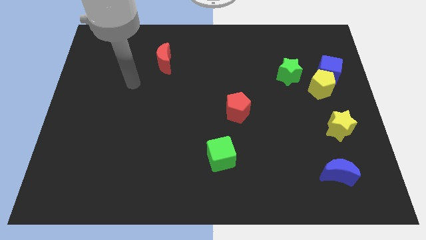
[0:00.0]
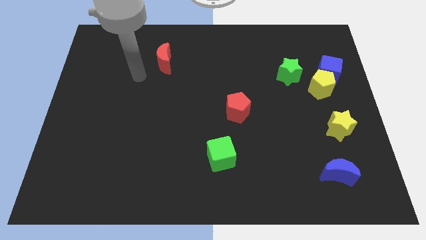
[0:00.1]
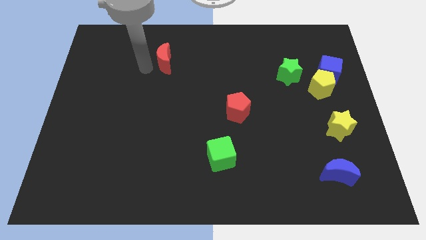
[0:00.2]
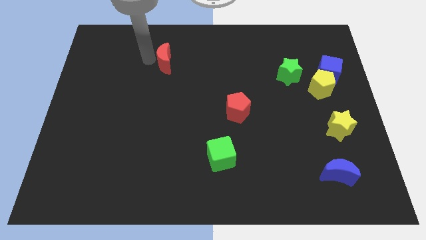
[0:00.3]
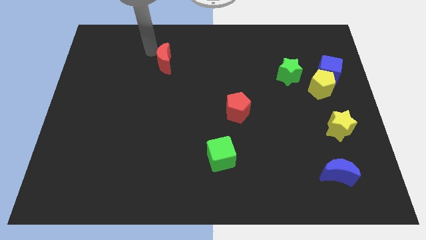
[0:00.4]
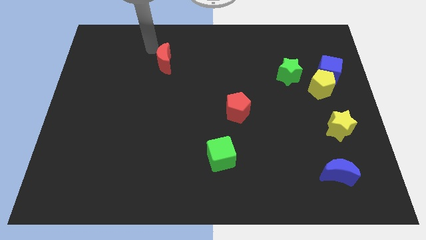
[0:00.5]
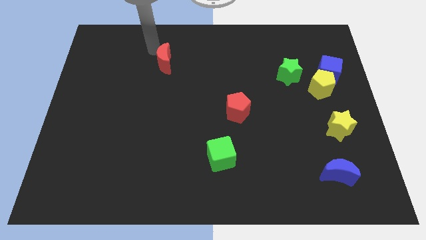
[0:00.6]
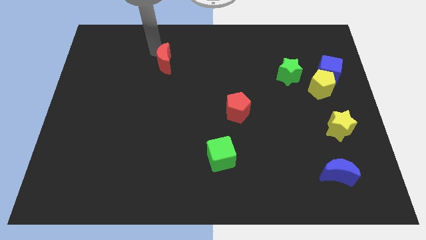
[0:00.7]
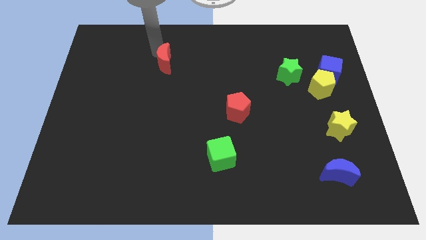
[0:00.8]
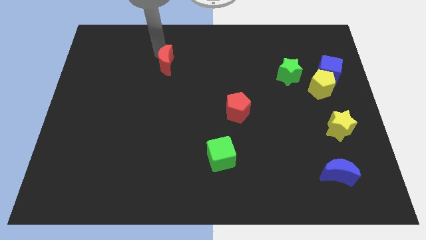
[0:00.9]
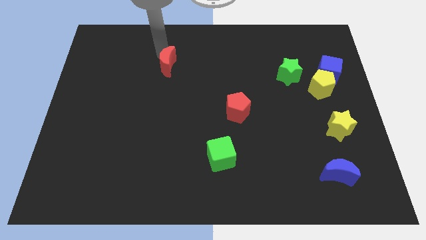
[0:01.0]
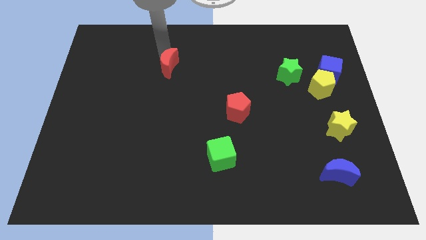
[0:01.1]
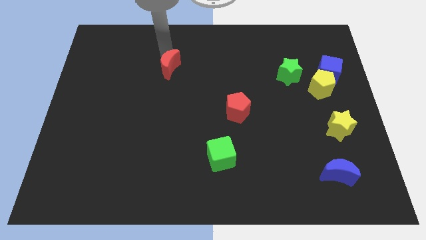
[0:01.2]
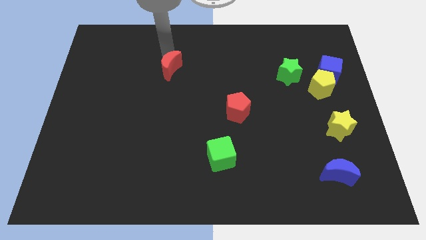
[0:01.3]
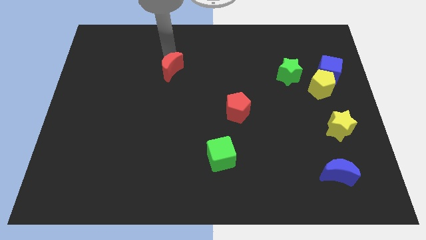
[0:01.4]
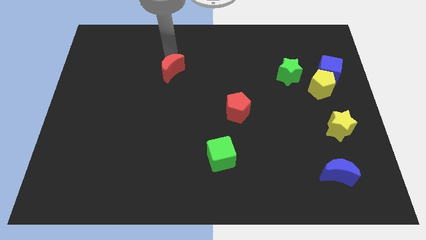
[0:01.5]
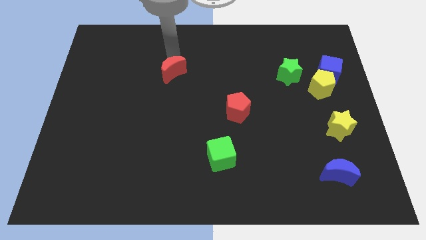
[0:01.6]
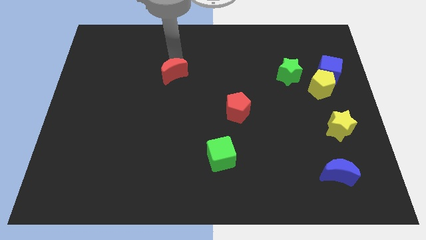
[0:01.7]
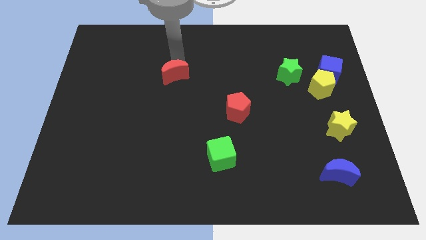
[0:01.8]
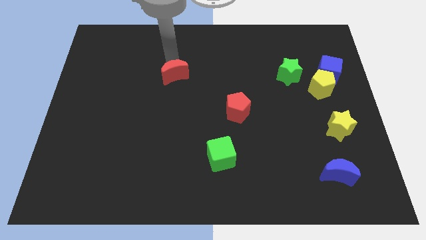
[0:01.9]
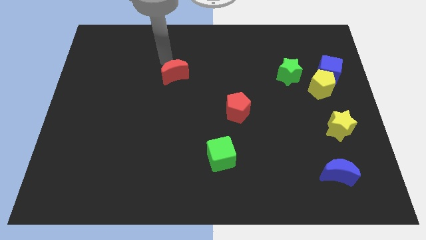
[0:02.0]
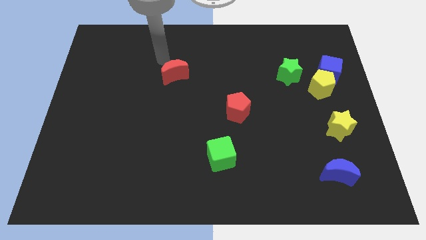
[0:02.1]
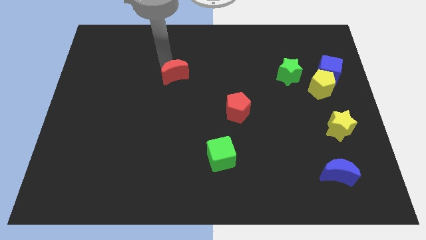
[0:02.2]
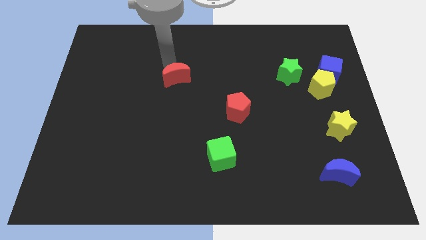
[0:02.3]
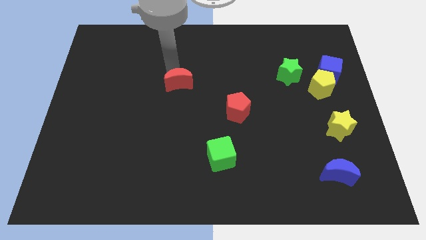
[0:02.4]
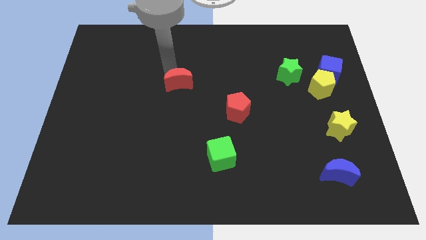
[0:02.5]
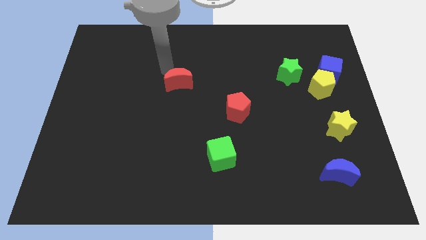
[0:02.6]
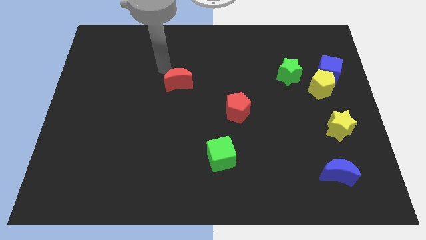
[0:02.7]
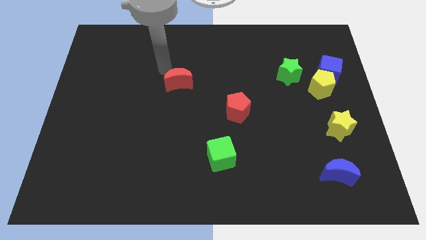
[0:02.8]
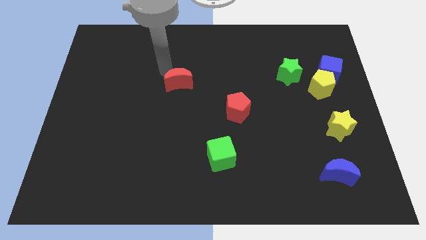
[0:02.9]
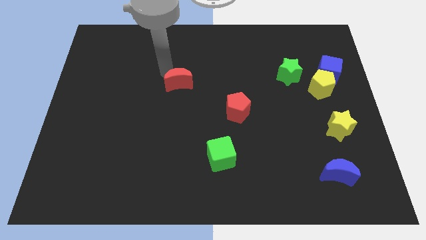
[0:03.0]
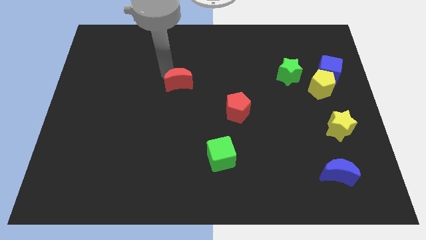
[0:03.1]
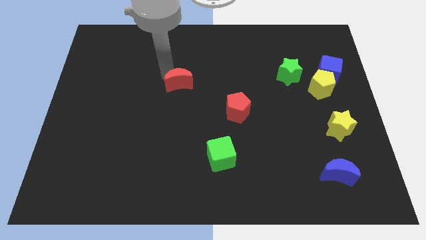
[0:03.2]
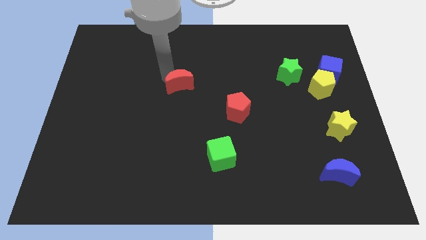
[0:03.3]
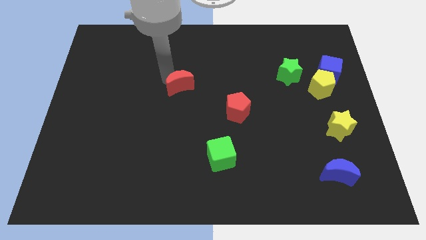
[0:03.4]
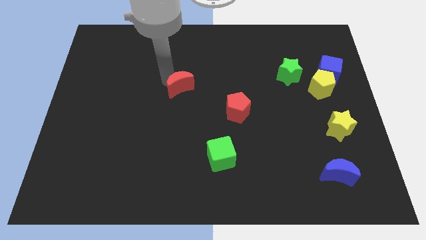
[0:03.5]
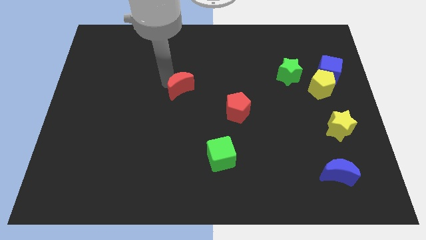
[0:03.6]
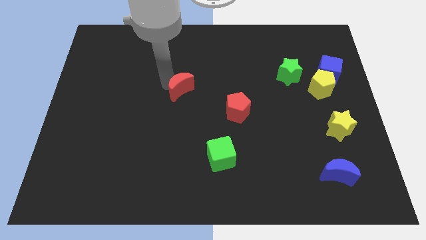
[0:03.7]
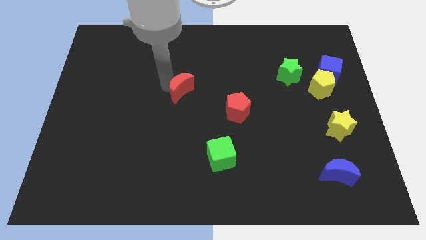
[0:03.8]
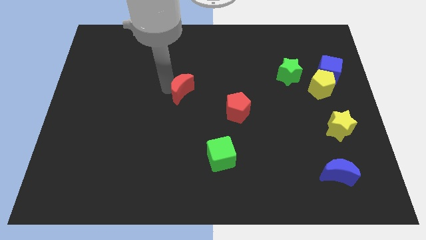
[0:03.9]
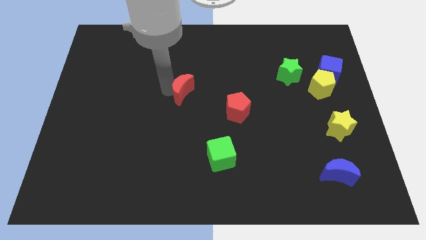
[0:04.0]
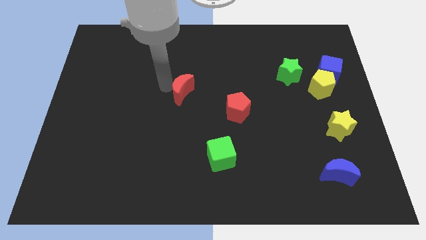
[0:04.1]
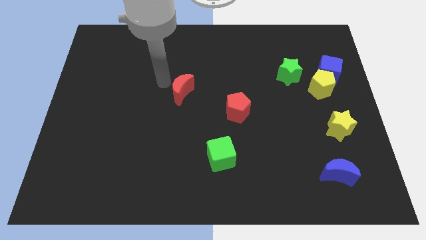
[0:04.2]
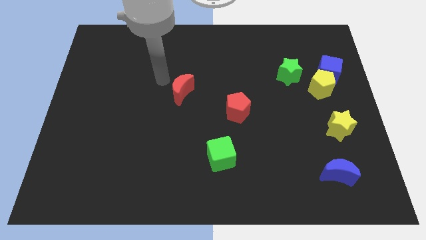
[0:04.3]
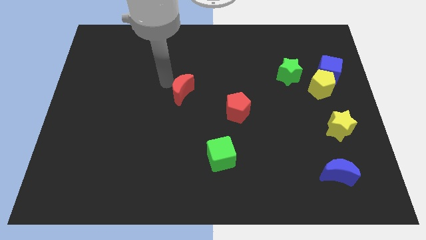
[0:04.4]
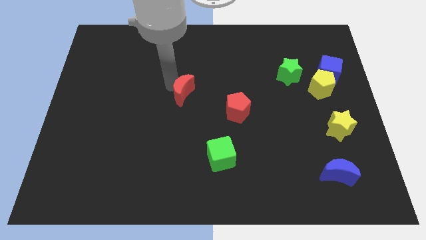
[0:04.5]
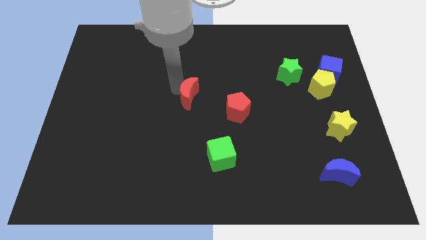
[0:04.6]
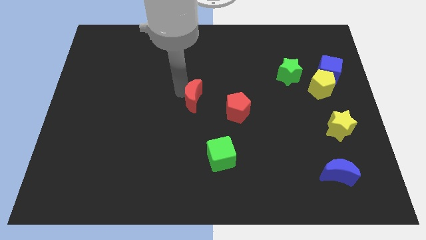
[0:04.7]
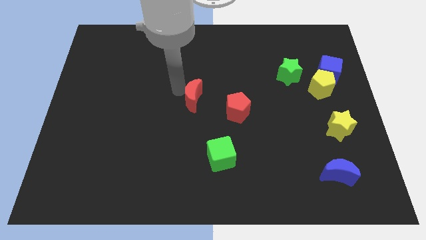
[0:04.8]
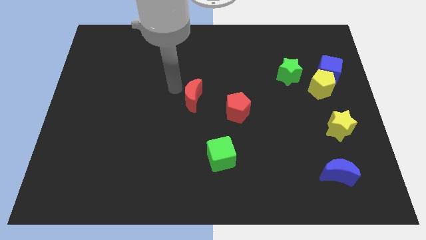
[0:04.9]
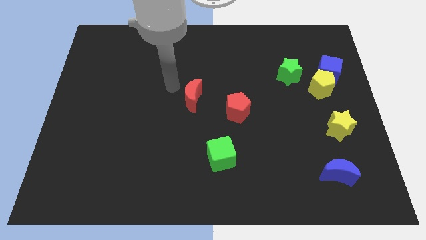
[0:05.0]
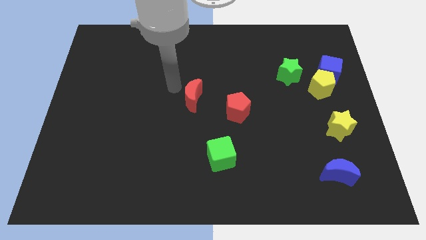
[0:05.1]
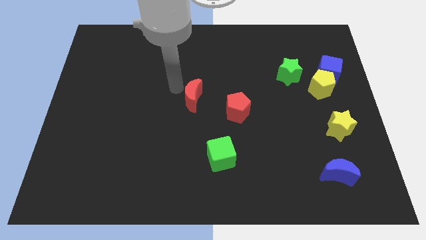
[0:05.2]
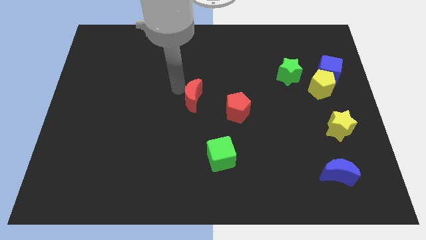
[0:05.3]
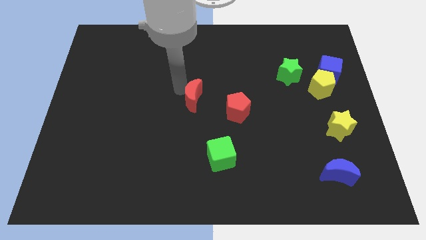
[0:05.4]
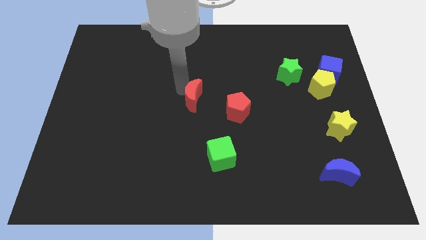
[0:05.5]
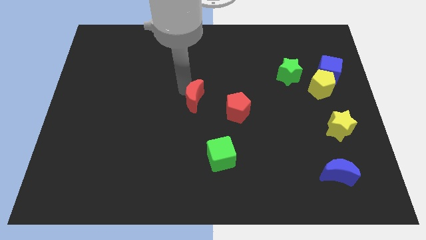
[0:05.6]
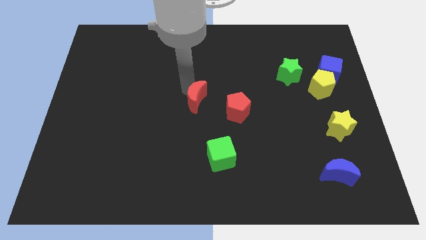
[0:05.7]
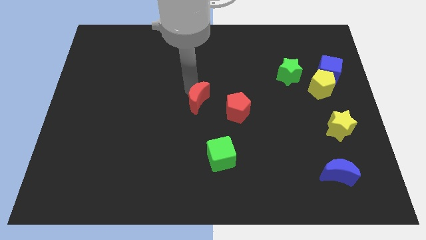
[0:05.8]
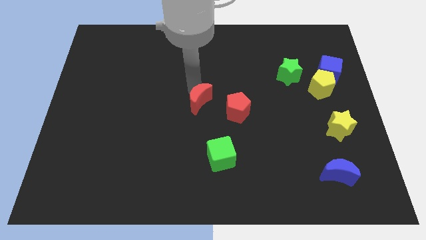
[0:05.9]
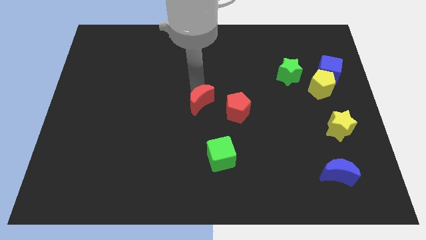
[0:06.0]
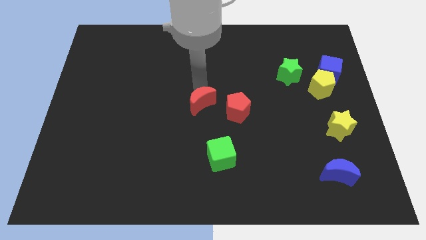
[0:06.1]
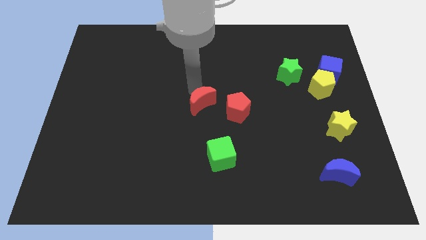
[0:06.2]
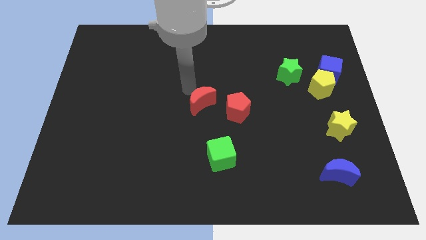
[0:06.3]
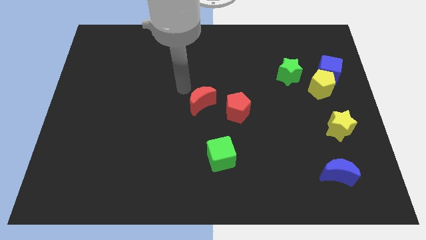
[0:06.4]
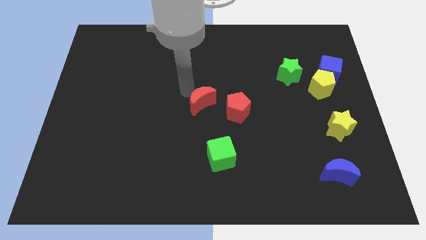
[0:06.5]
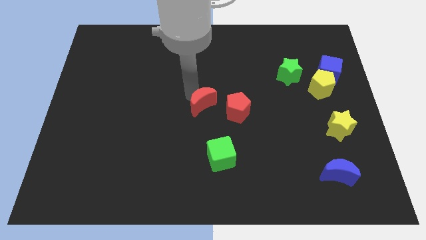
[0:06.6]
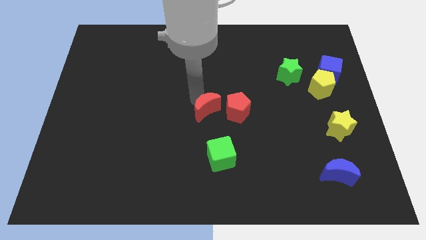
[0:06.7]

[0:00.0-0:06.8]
put the red moon to the top side of the green cube
